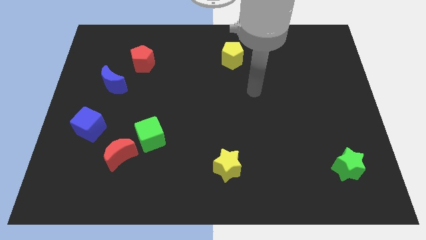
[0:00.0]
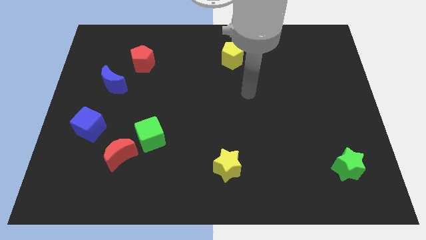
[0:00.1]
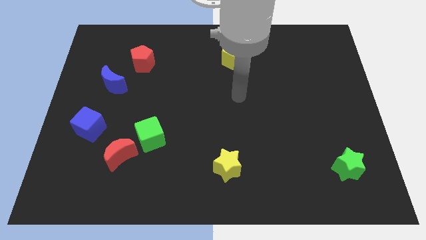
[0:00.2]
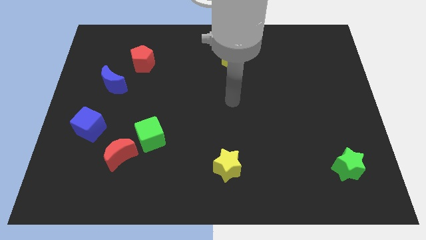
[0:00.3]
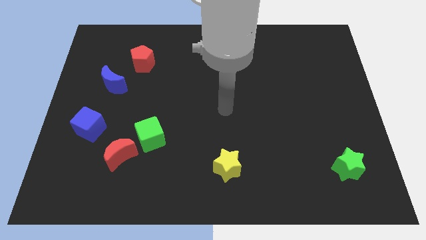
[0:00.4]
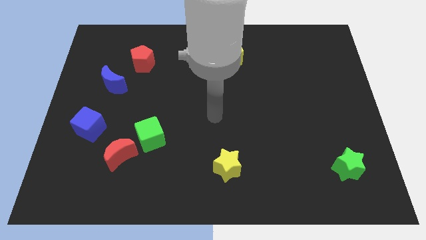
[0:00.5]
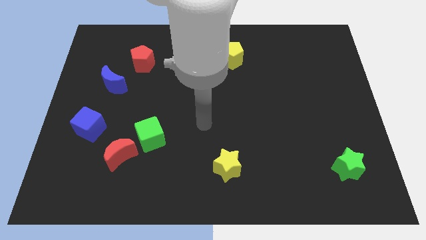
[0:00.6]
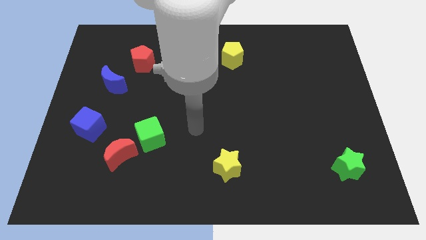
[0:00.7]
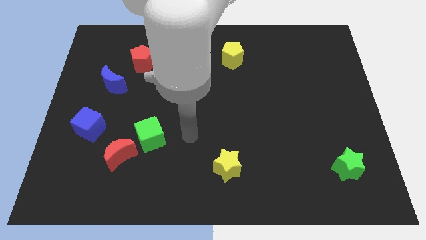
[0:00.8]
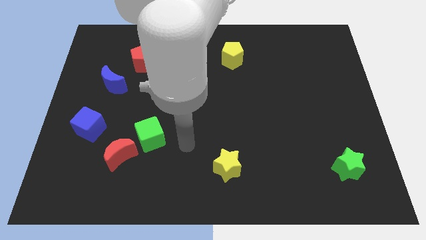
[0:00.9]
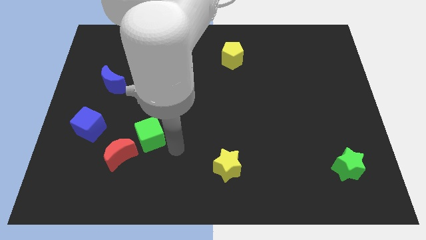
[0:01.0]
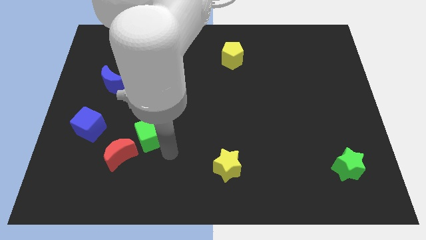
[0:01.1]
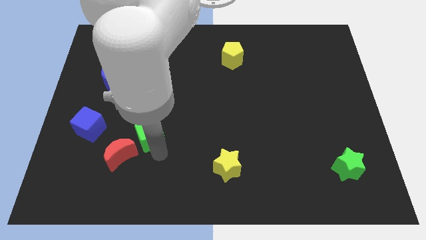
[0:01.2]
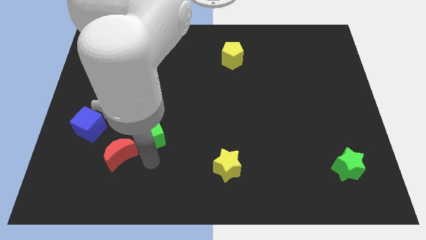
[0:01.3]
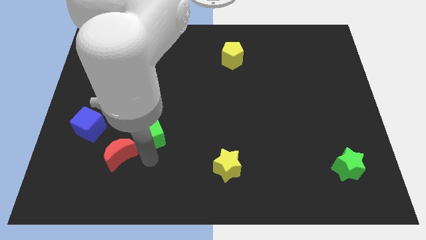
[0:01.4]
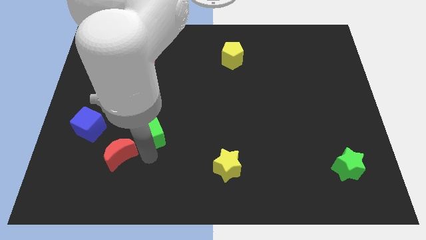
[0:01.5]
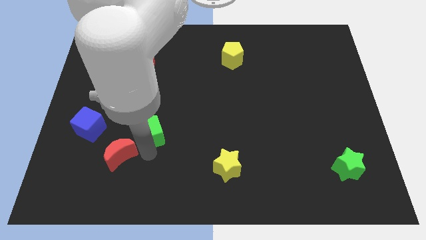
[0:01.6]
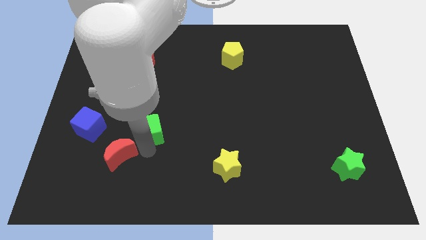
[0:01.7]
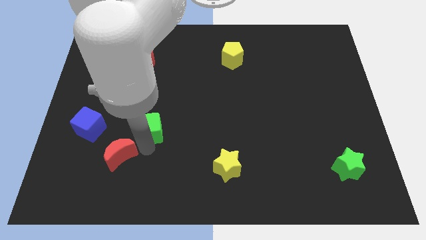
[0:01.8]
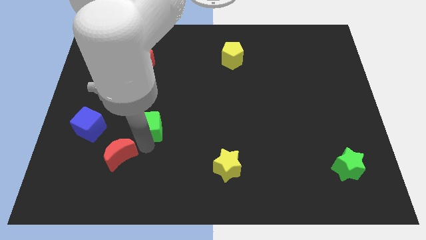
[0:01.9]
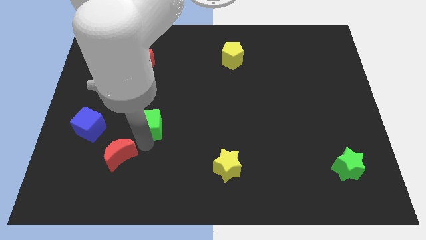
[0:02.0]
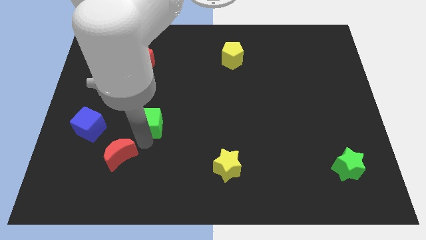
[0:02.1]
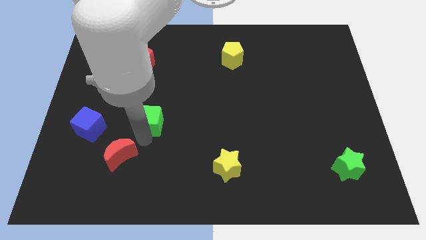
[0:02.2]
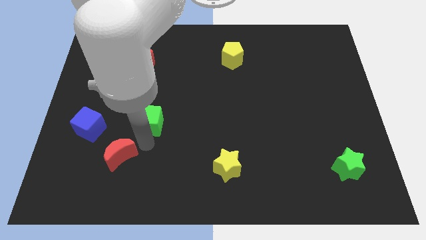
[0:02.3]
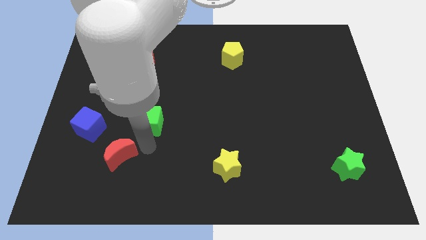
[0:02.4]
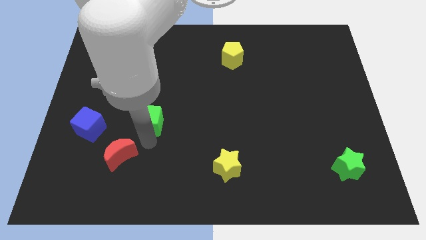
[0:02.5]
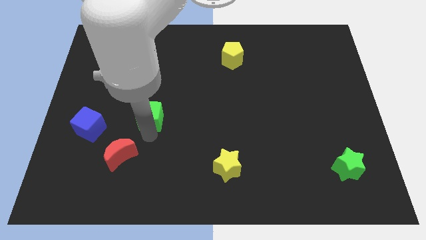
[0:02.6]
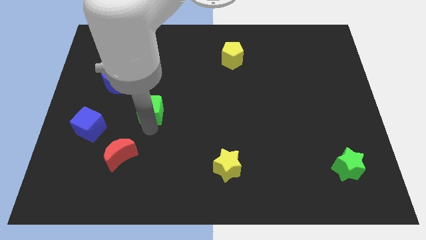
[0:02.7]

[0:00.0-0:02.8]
push the green cube a little bit up

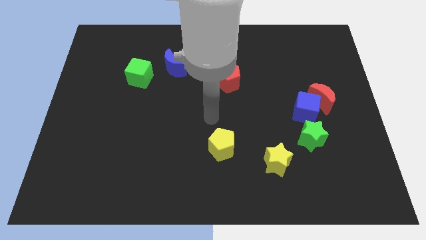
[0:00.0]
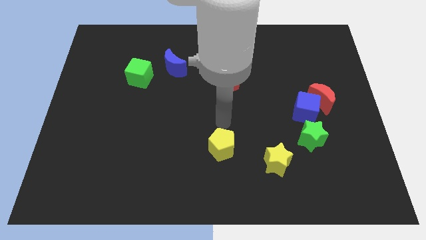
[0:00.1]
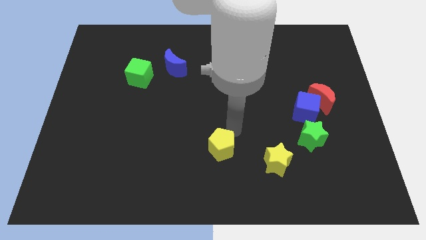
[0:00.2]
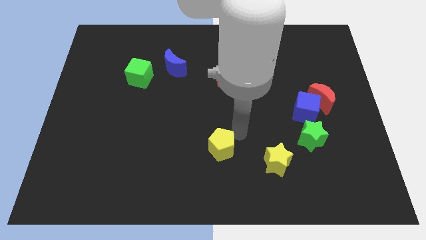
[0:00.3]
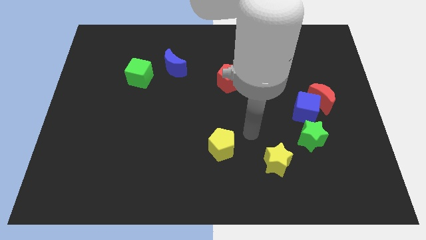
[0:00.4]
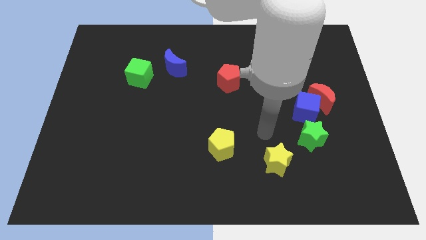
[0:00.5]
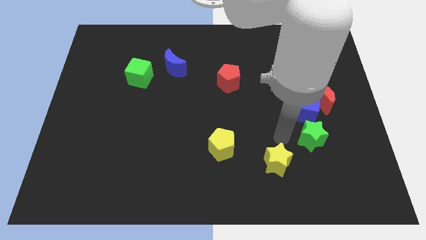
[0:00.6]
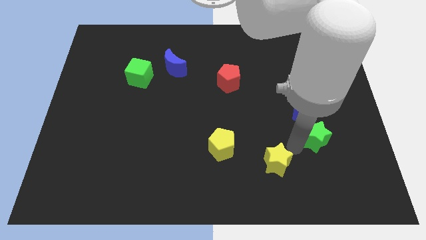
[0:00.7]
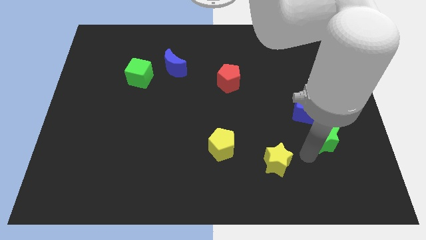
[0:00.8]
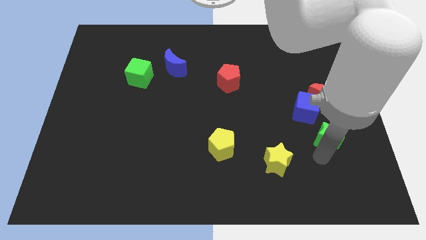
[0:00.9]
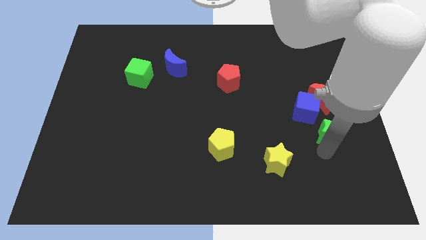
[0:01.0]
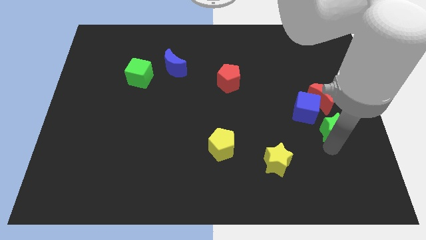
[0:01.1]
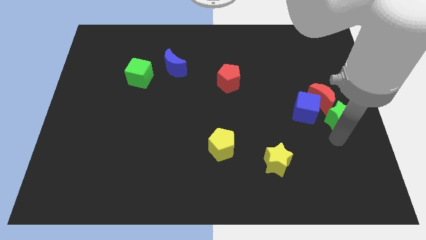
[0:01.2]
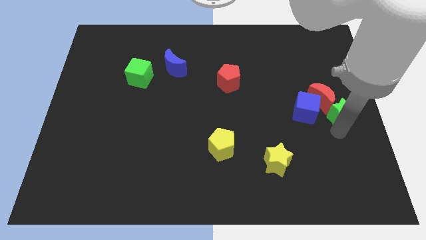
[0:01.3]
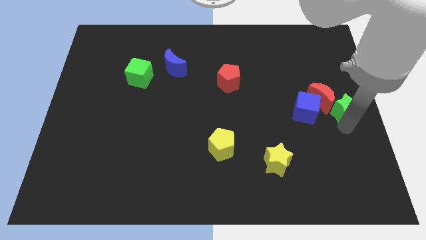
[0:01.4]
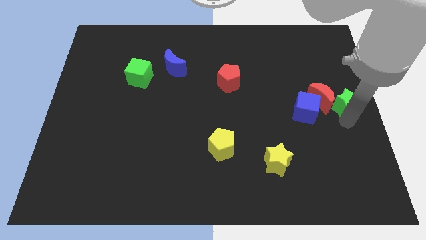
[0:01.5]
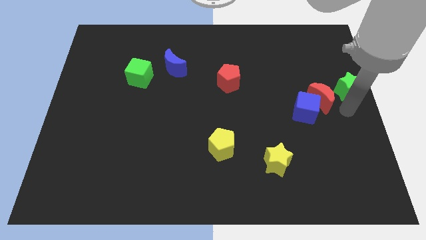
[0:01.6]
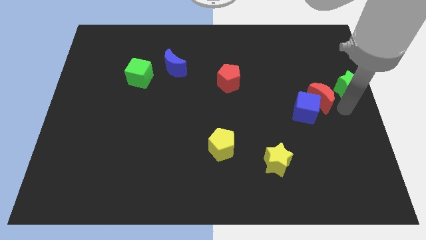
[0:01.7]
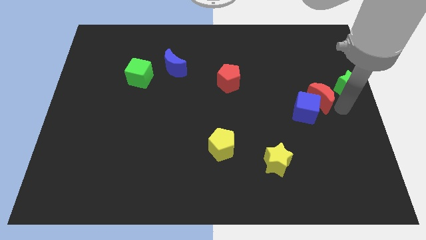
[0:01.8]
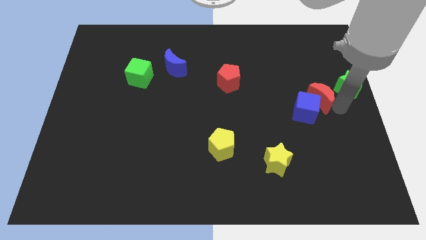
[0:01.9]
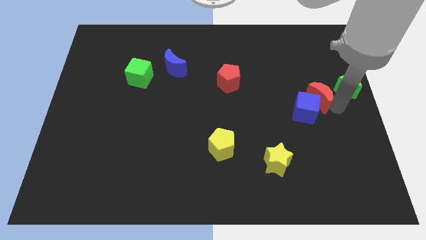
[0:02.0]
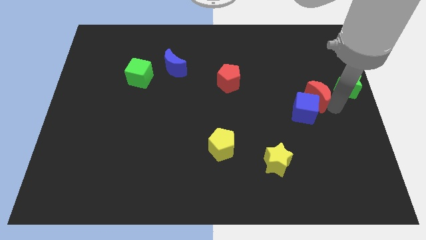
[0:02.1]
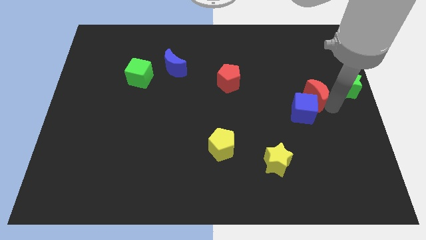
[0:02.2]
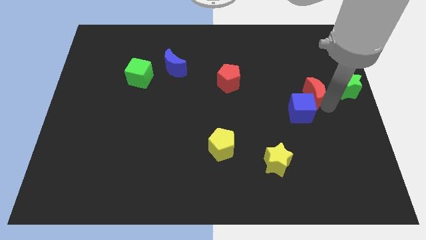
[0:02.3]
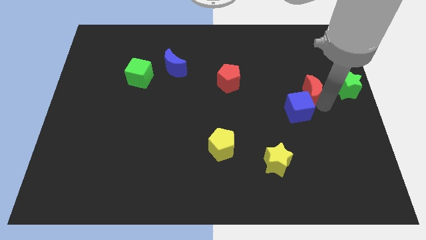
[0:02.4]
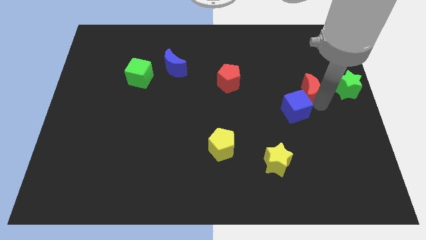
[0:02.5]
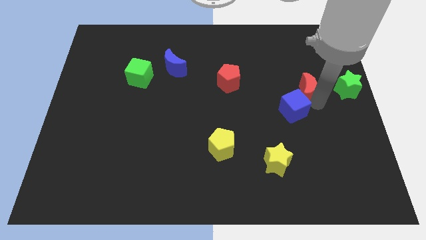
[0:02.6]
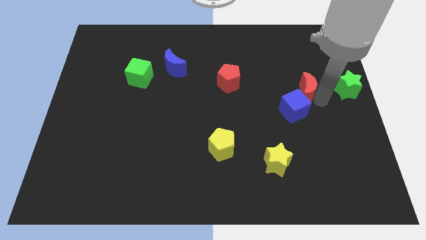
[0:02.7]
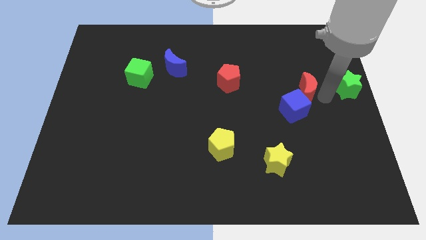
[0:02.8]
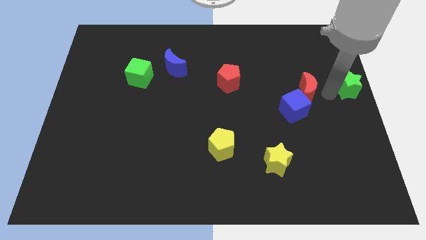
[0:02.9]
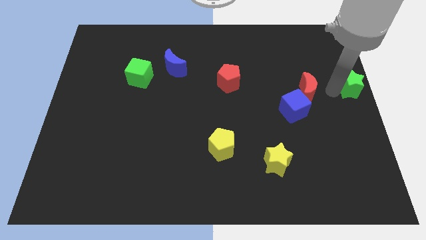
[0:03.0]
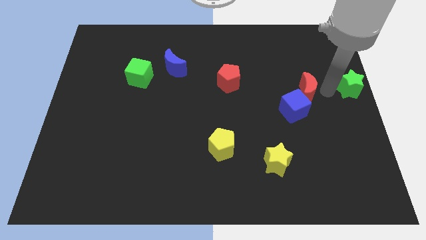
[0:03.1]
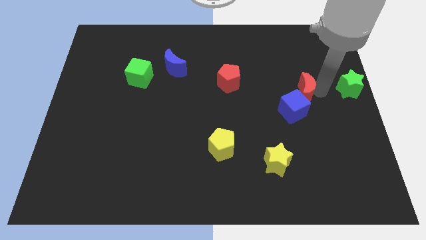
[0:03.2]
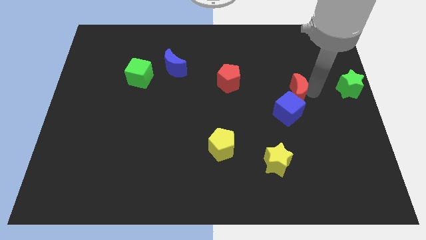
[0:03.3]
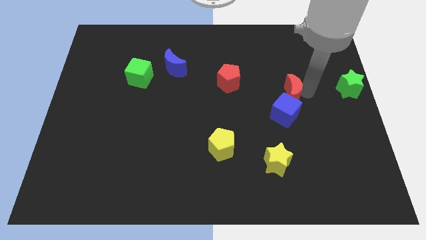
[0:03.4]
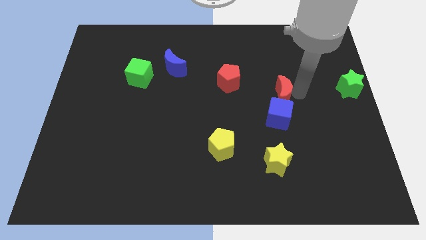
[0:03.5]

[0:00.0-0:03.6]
slightly push the red moon left

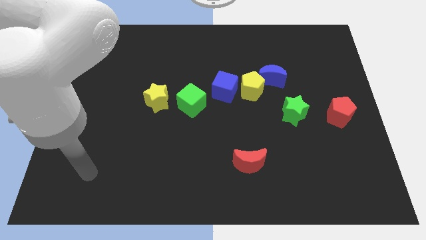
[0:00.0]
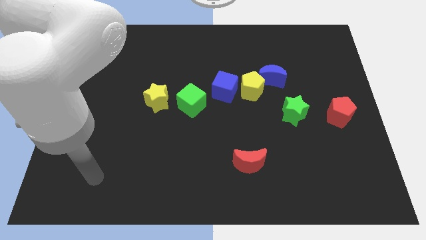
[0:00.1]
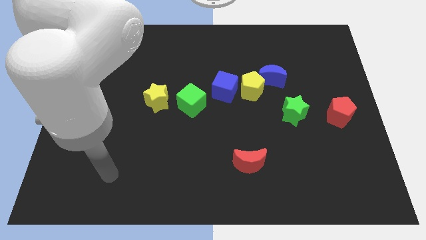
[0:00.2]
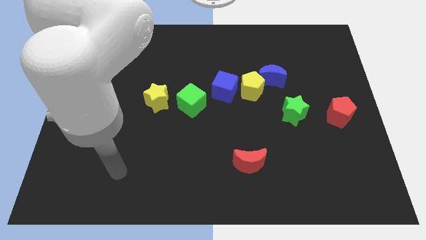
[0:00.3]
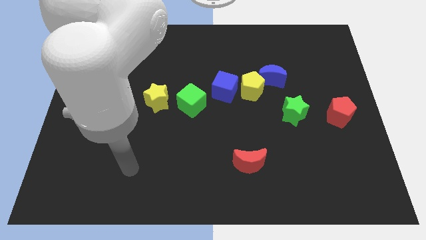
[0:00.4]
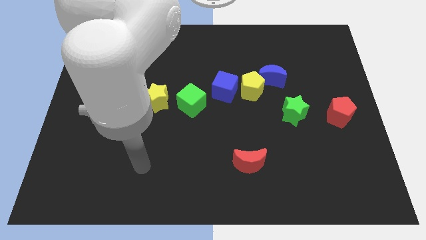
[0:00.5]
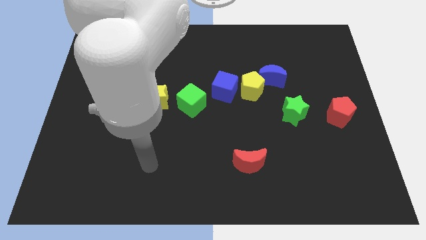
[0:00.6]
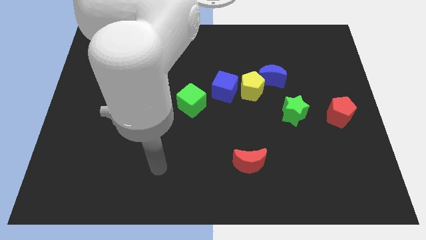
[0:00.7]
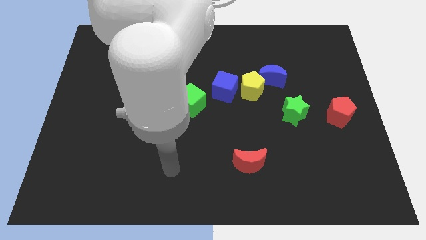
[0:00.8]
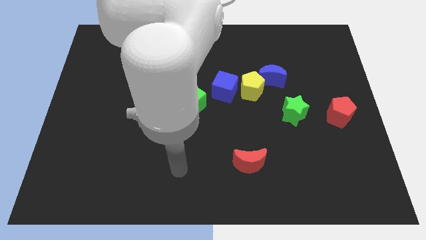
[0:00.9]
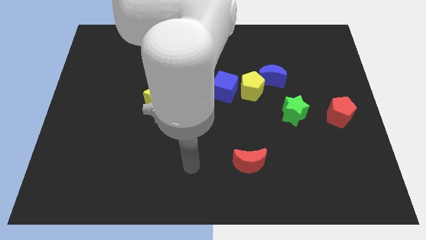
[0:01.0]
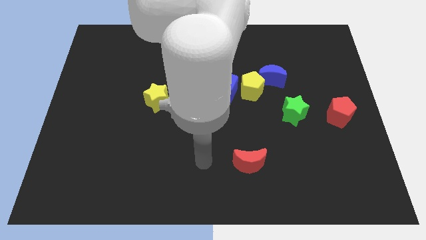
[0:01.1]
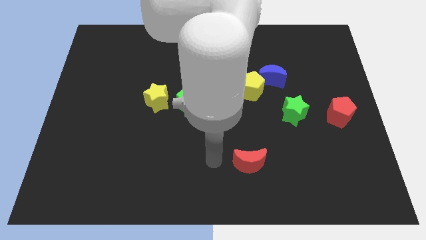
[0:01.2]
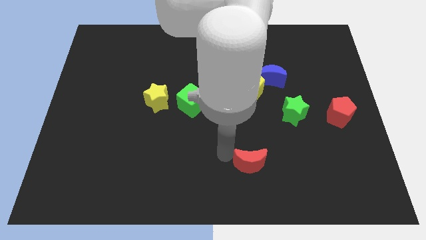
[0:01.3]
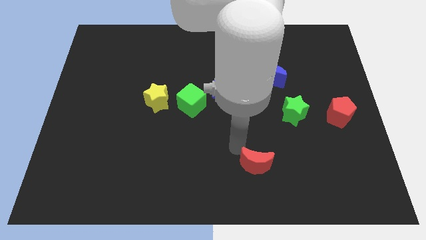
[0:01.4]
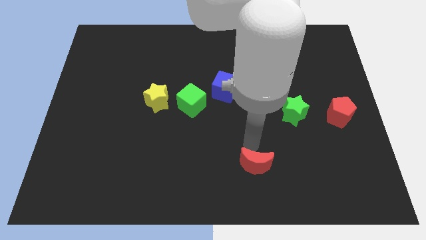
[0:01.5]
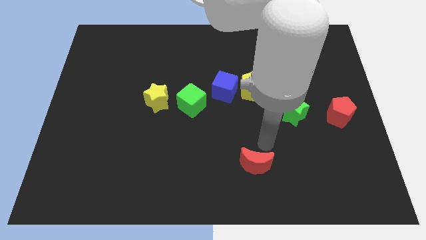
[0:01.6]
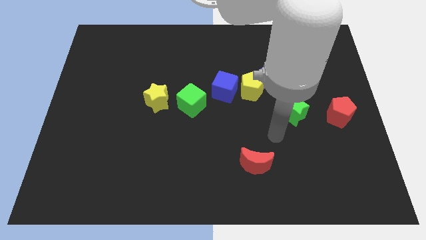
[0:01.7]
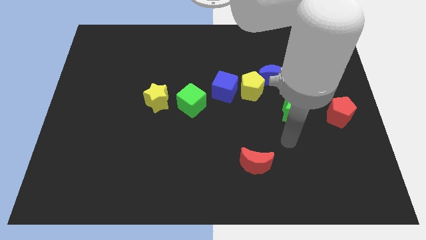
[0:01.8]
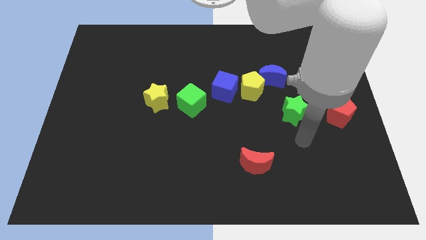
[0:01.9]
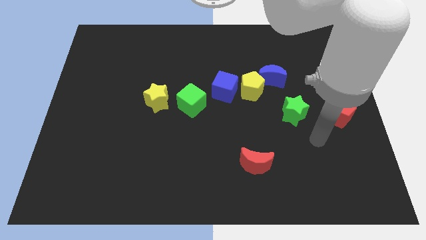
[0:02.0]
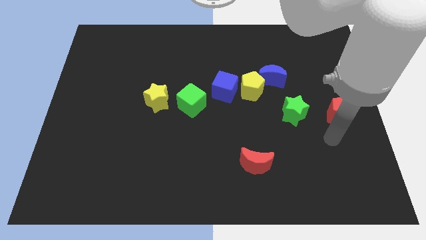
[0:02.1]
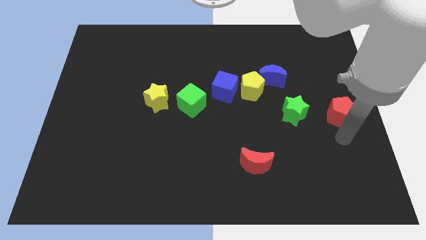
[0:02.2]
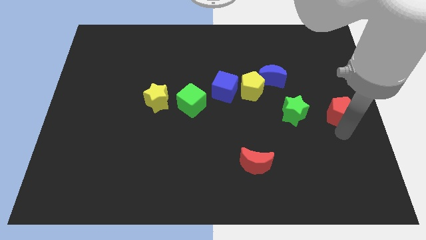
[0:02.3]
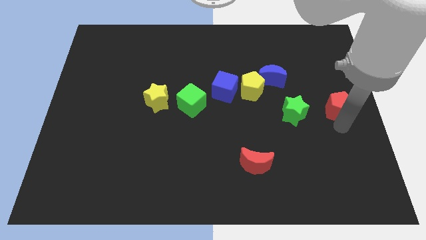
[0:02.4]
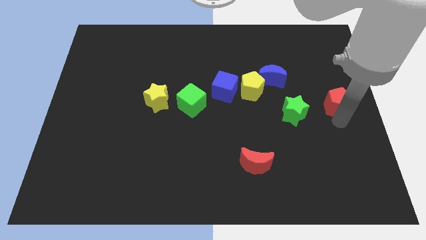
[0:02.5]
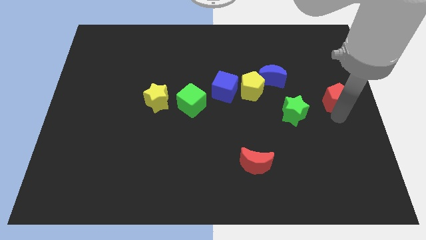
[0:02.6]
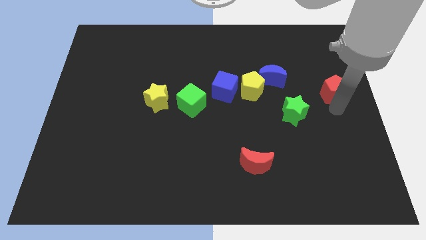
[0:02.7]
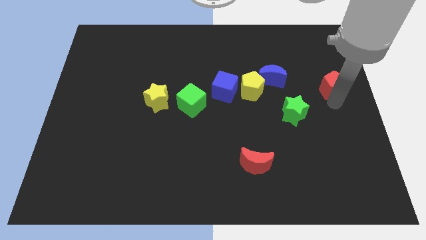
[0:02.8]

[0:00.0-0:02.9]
move the red pentagon up a little bit
